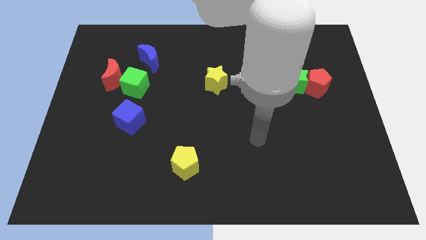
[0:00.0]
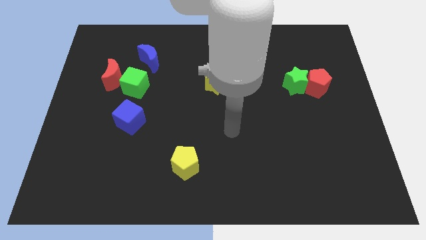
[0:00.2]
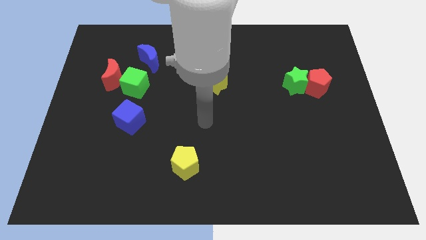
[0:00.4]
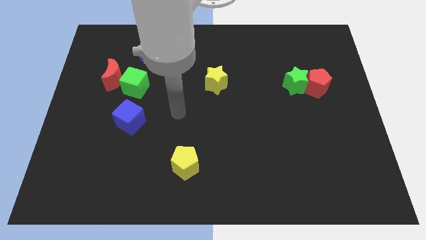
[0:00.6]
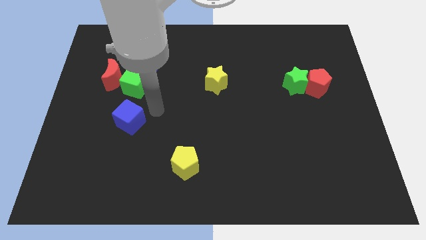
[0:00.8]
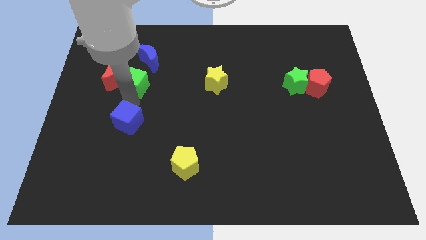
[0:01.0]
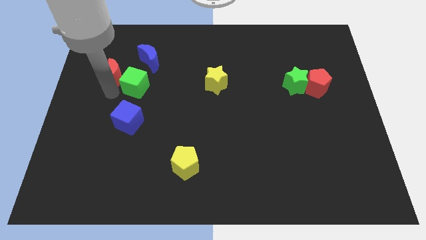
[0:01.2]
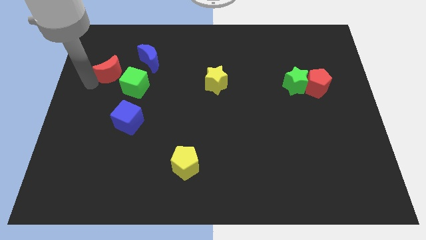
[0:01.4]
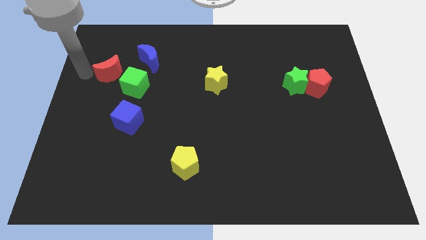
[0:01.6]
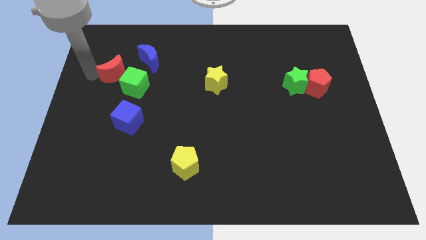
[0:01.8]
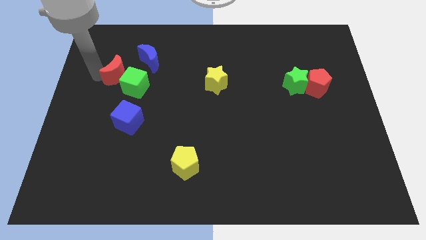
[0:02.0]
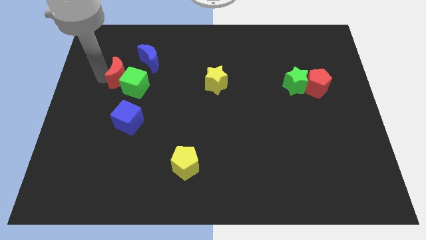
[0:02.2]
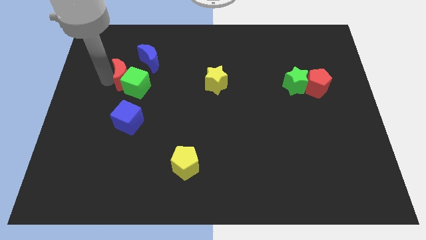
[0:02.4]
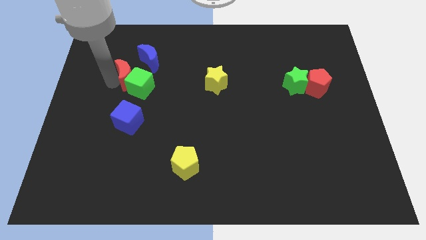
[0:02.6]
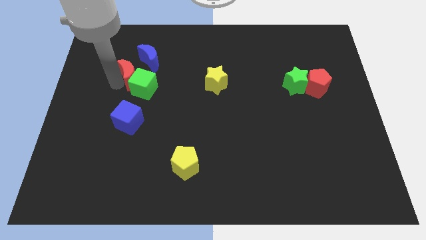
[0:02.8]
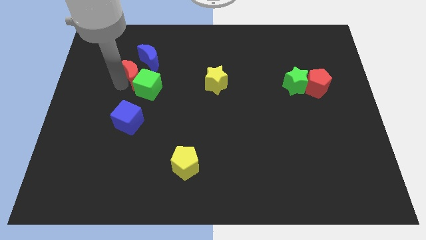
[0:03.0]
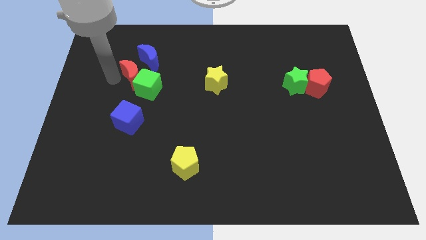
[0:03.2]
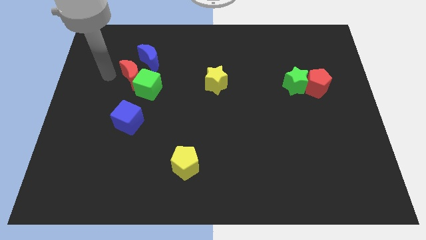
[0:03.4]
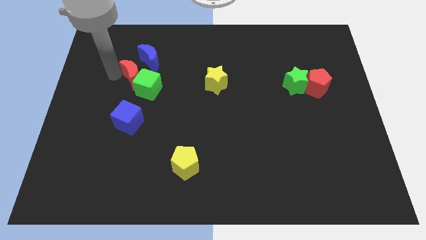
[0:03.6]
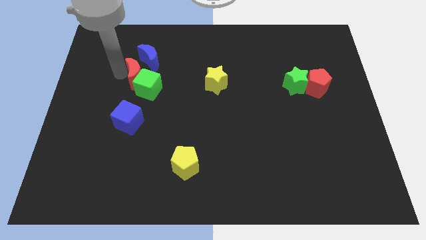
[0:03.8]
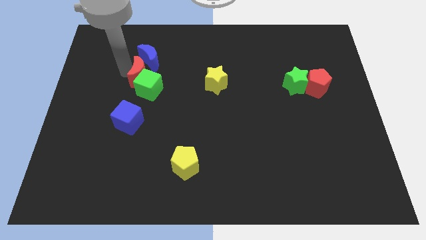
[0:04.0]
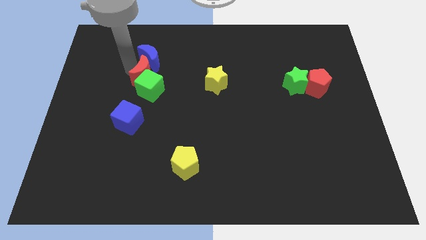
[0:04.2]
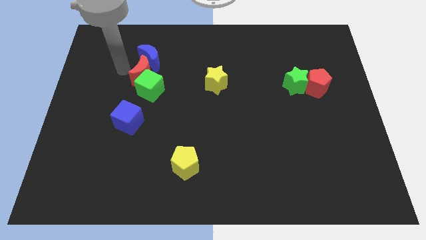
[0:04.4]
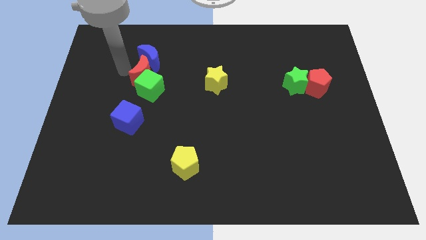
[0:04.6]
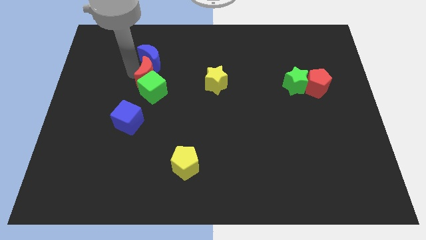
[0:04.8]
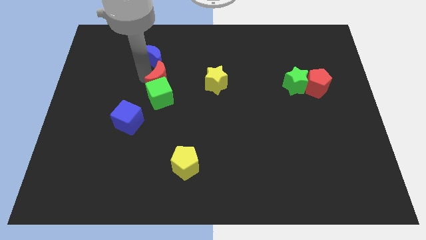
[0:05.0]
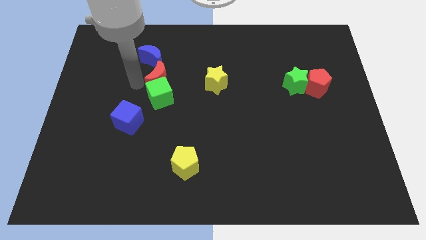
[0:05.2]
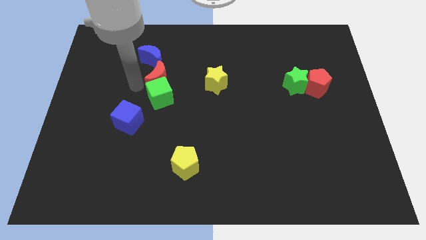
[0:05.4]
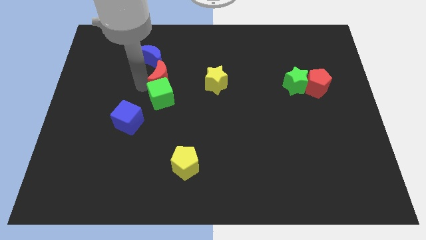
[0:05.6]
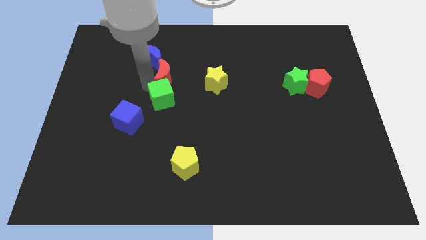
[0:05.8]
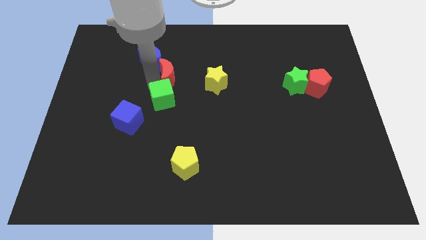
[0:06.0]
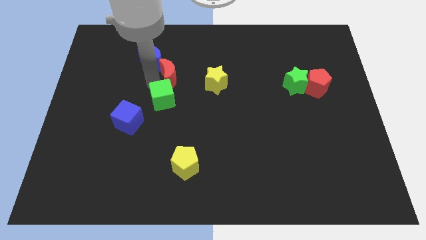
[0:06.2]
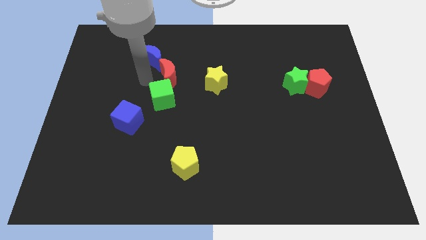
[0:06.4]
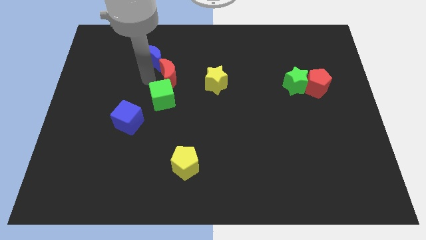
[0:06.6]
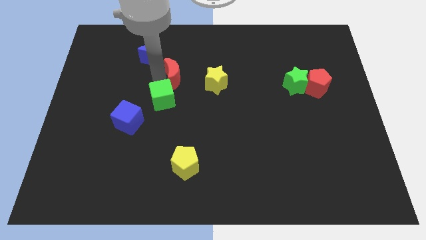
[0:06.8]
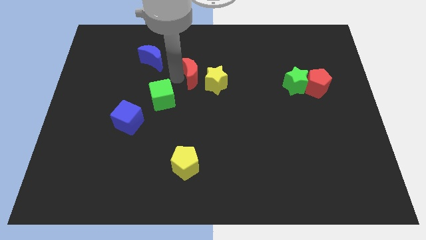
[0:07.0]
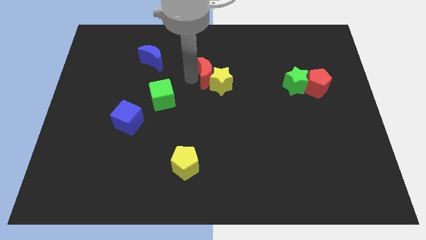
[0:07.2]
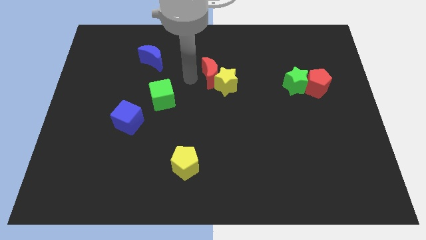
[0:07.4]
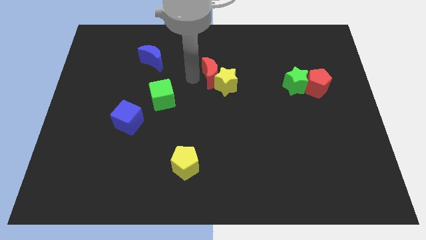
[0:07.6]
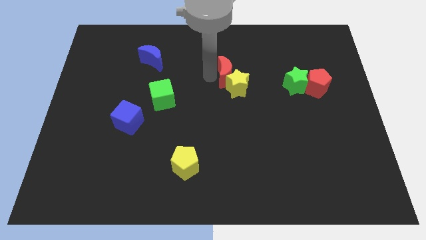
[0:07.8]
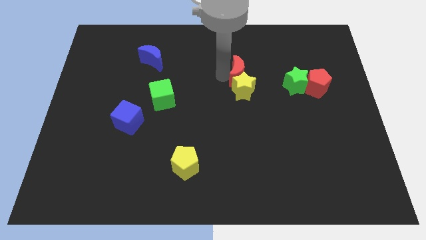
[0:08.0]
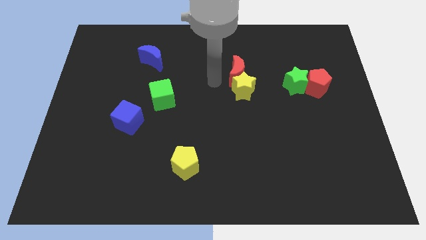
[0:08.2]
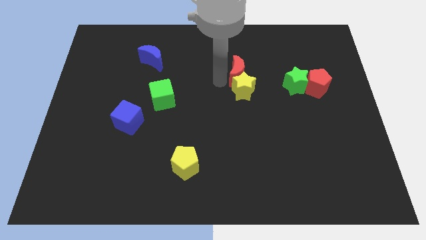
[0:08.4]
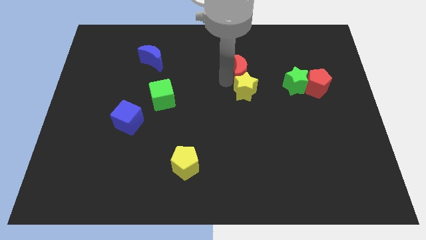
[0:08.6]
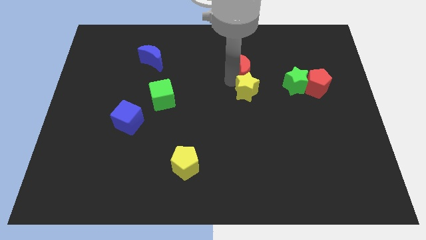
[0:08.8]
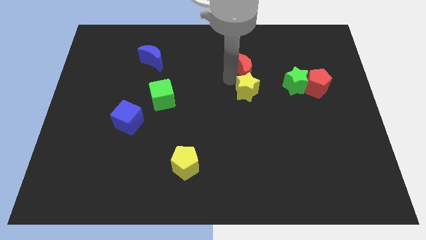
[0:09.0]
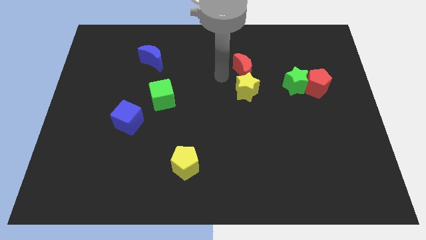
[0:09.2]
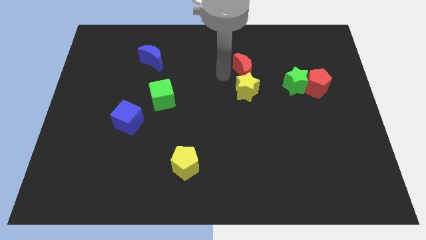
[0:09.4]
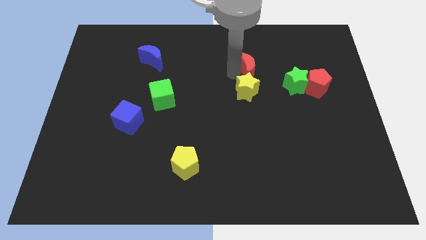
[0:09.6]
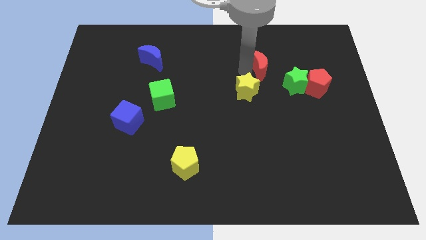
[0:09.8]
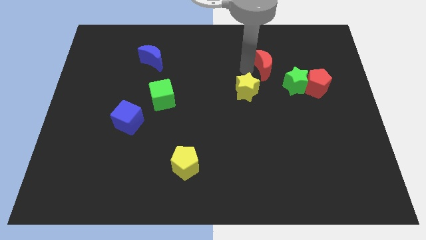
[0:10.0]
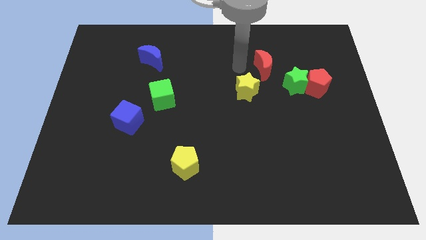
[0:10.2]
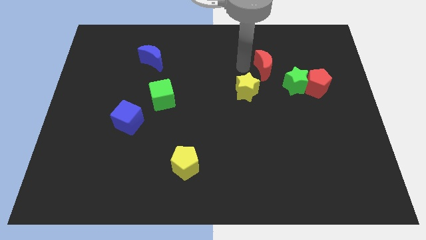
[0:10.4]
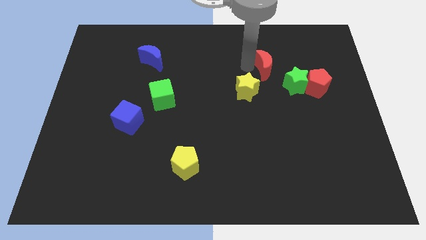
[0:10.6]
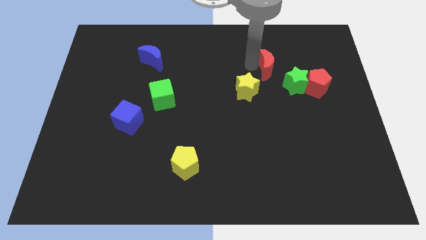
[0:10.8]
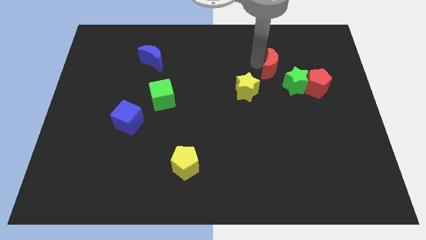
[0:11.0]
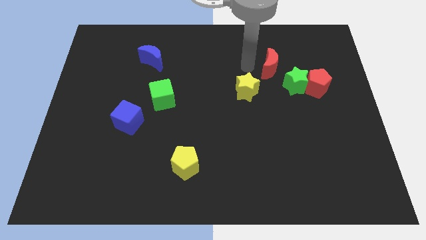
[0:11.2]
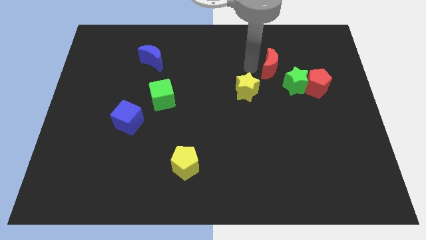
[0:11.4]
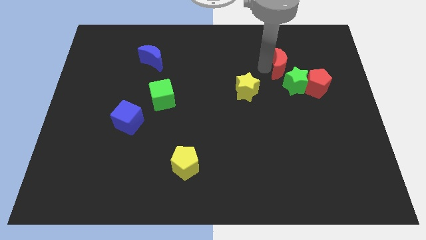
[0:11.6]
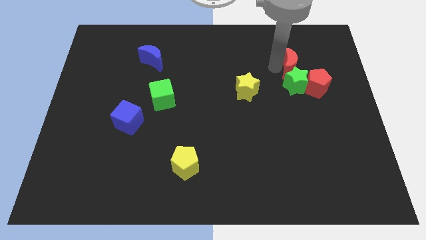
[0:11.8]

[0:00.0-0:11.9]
move the red moon to the top right side of the green star
